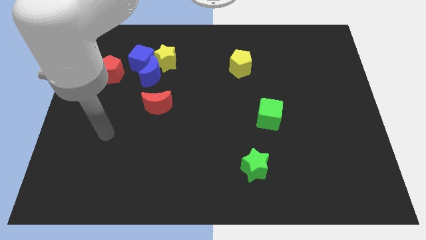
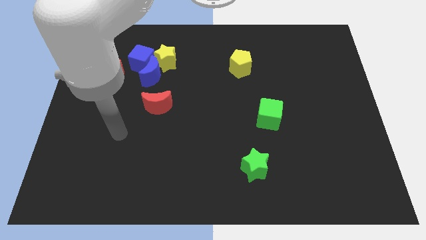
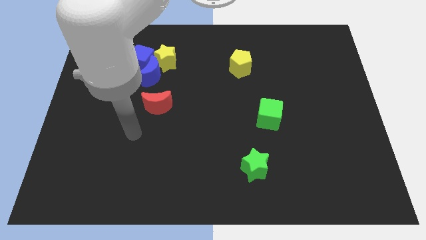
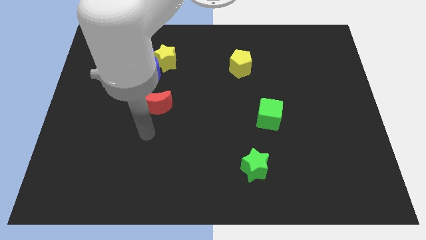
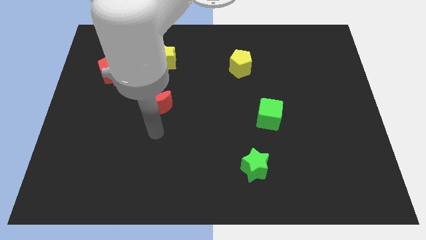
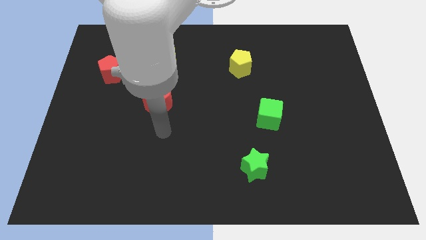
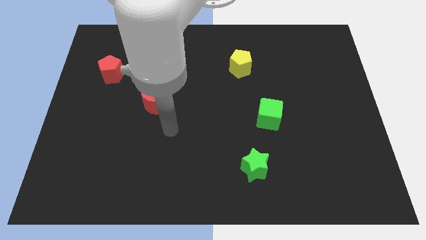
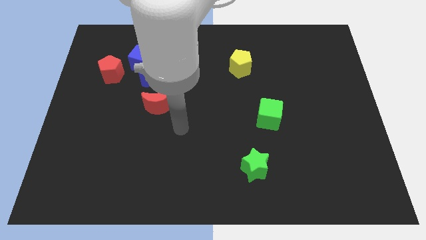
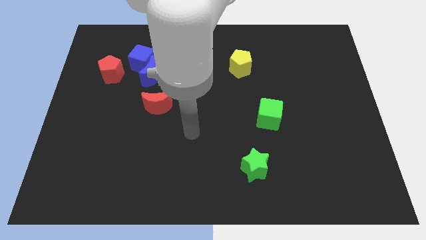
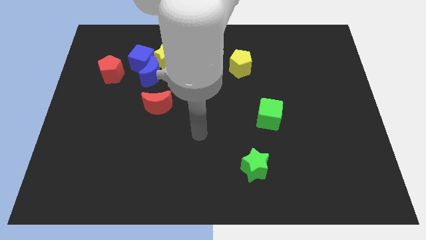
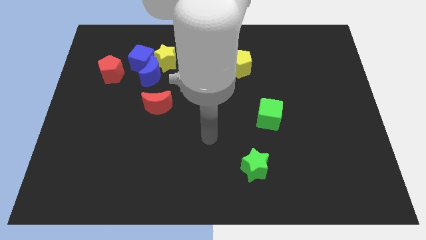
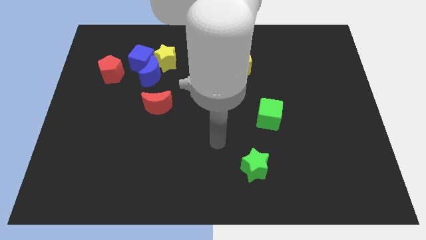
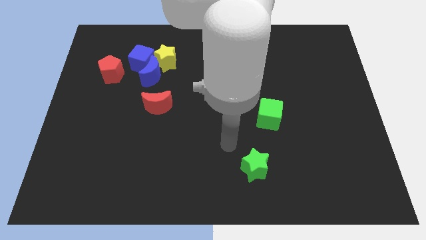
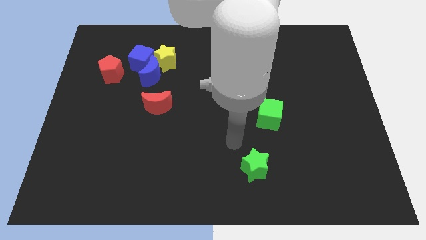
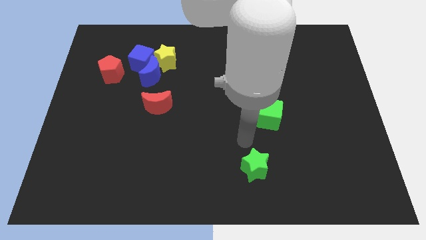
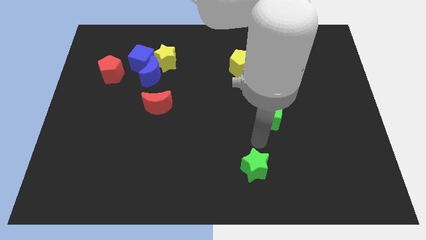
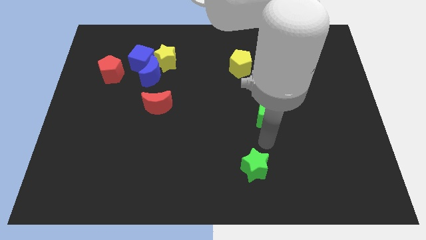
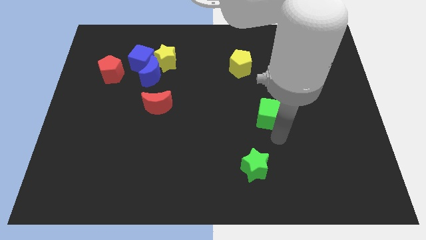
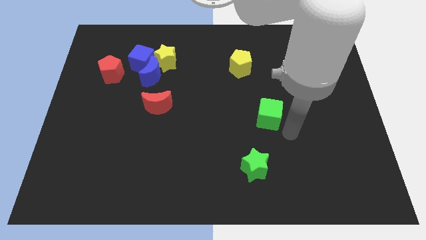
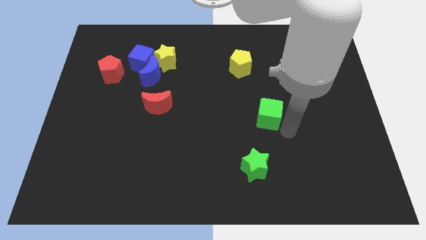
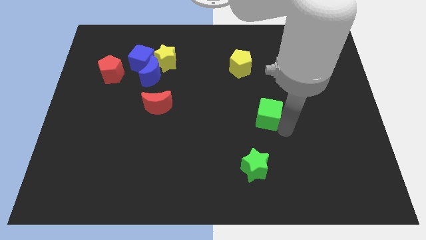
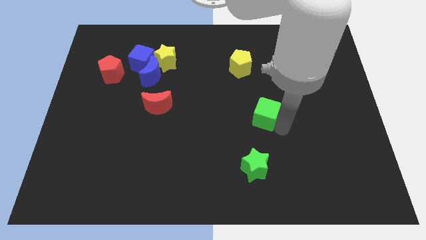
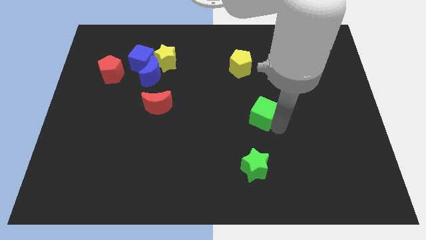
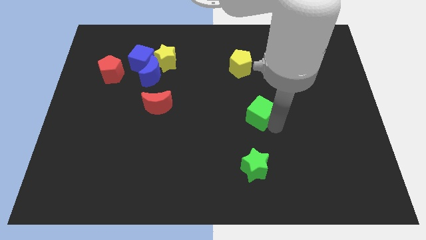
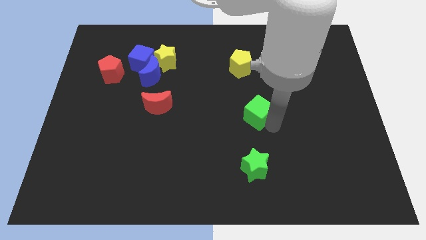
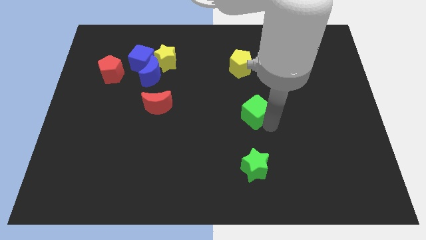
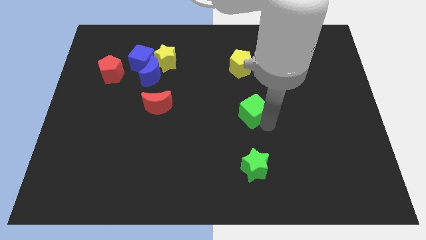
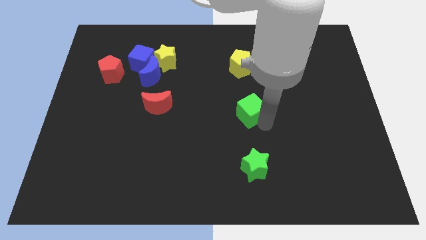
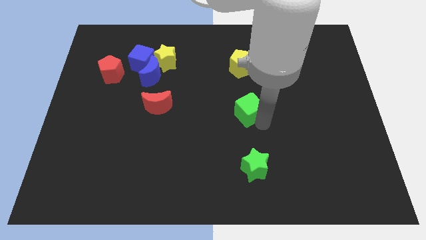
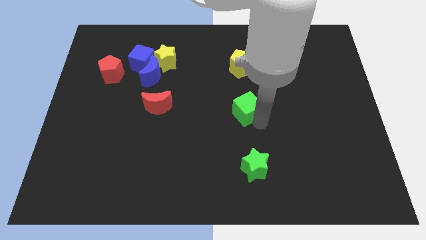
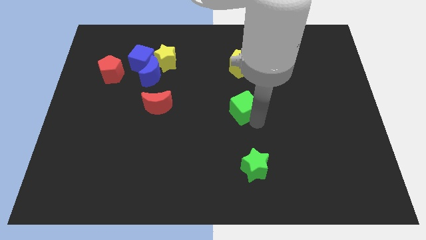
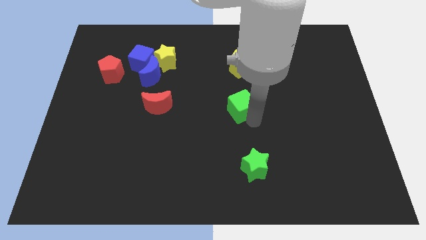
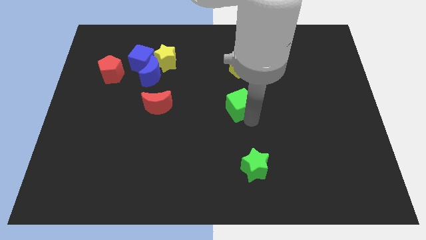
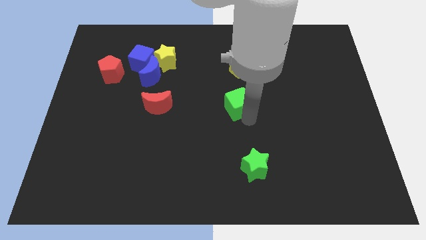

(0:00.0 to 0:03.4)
slide the green cube diagonally upwards and to the left somewhat

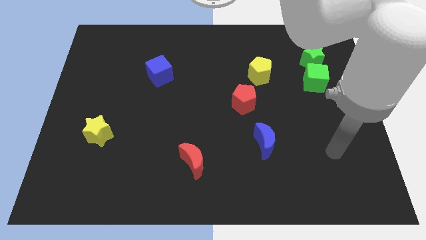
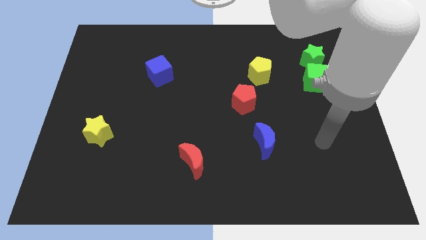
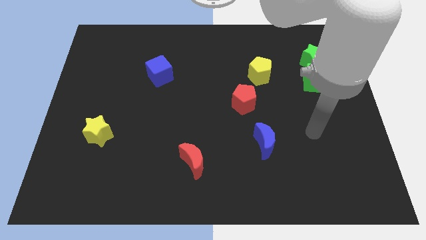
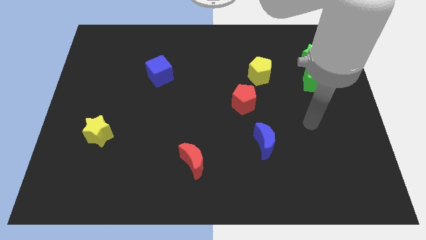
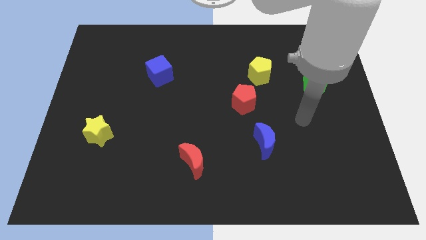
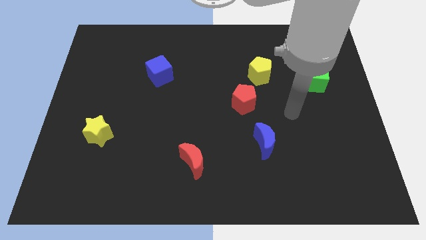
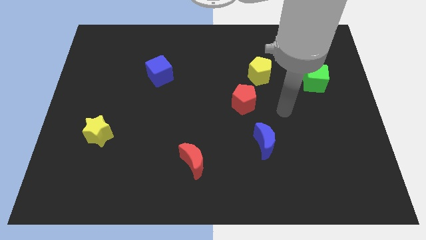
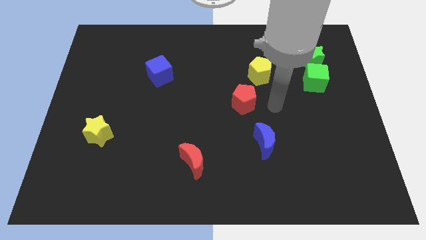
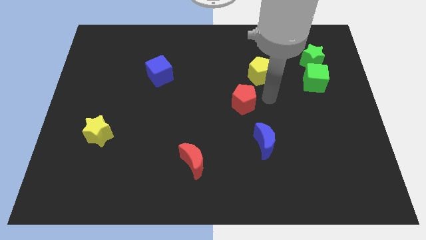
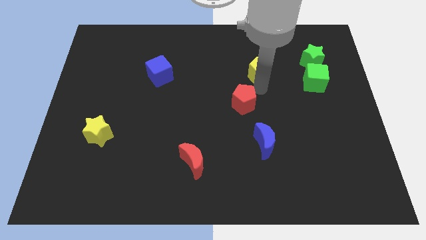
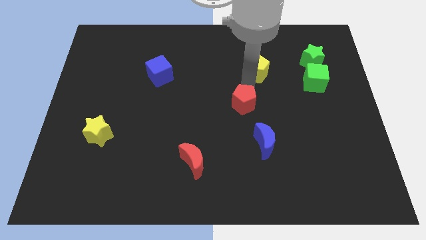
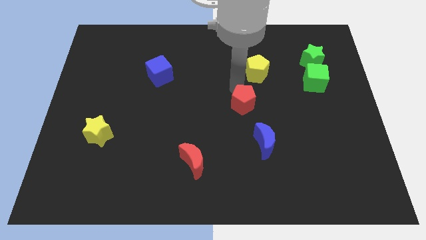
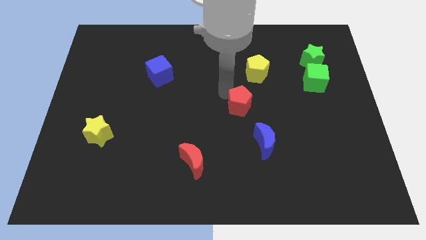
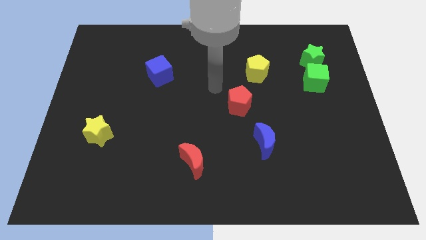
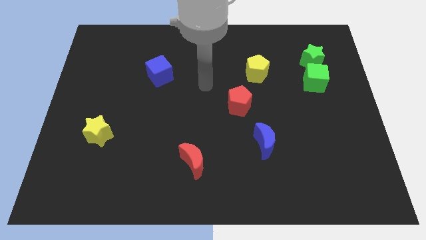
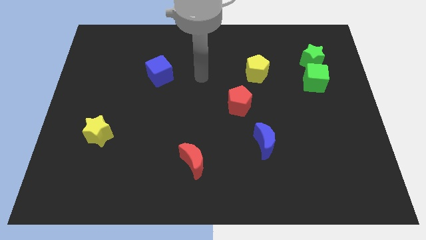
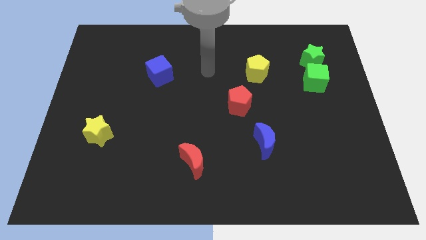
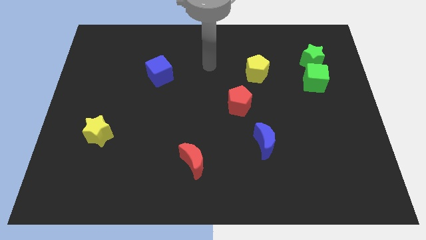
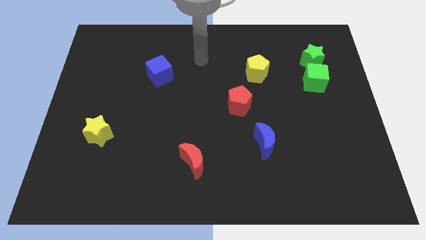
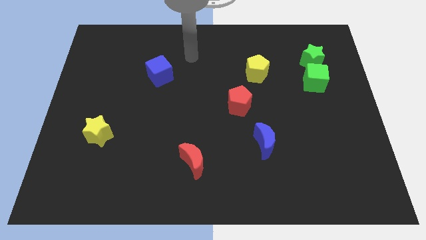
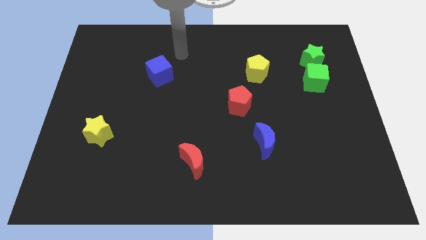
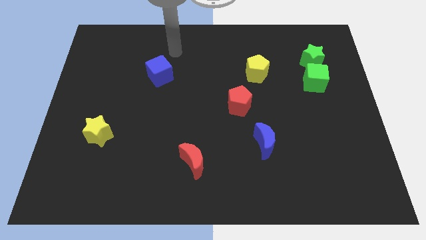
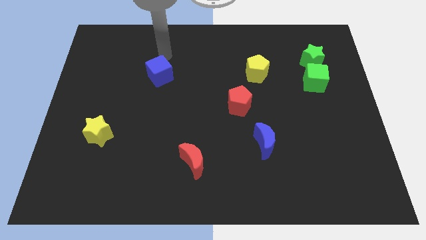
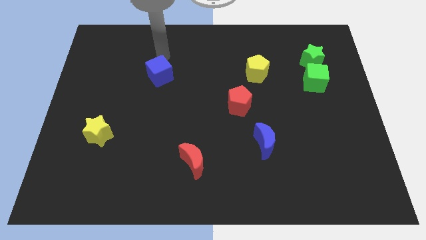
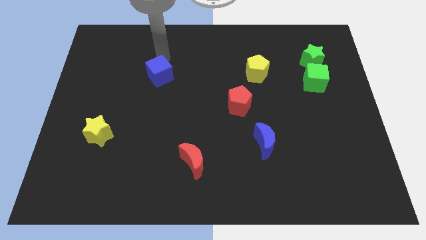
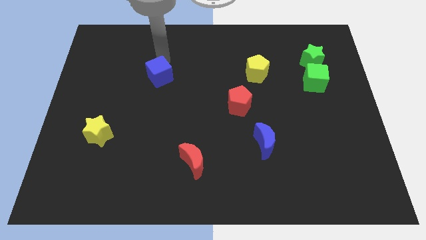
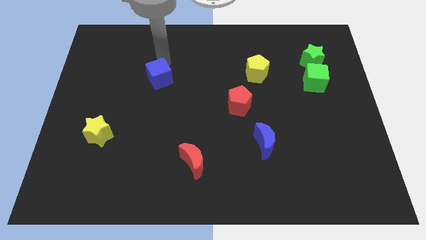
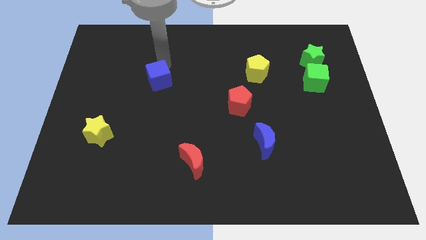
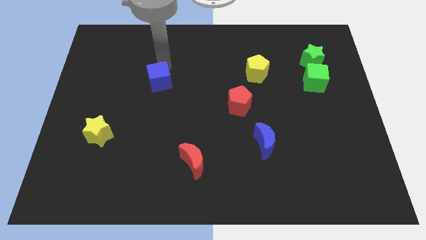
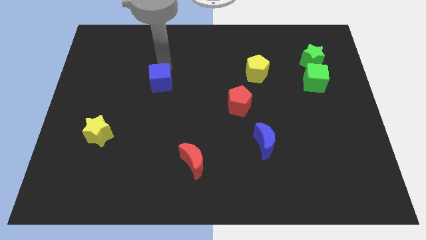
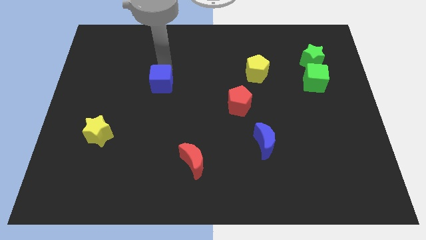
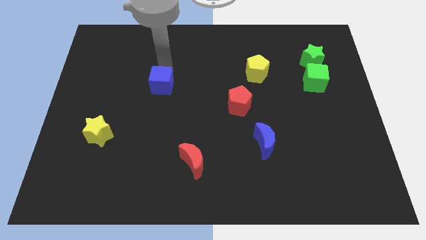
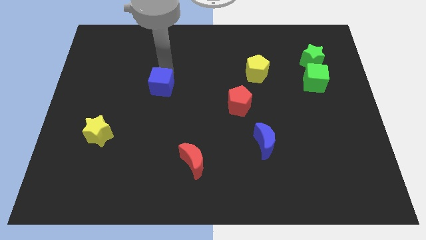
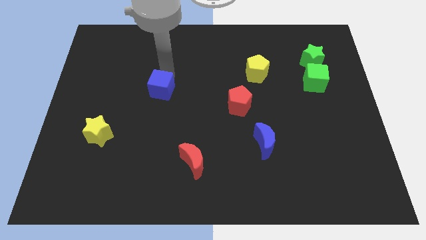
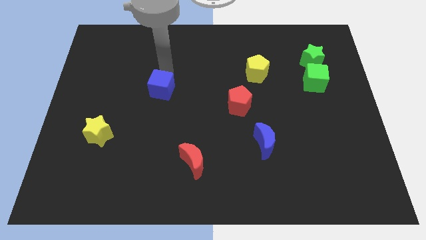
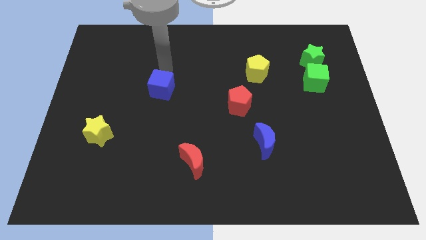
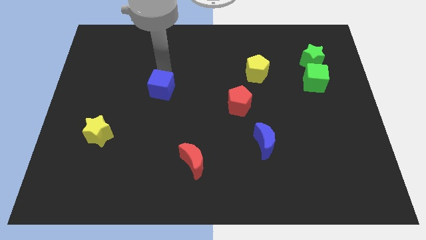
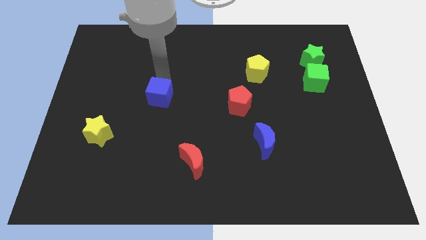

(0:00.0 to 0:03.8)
slide the blue cube down a bit

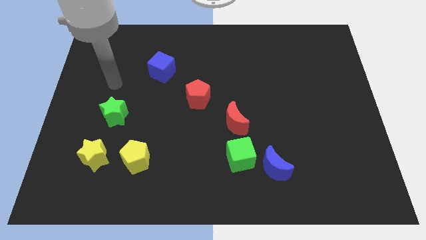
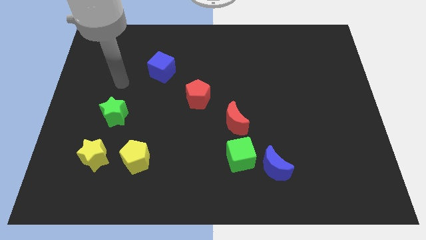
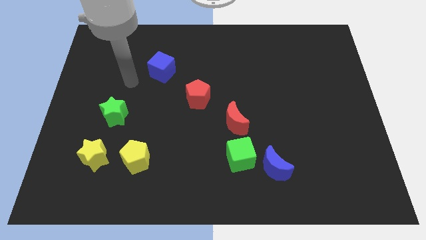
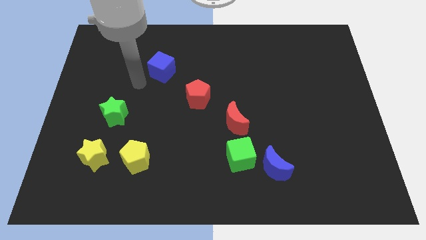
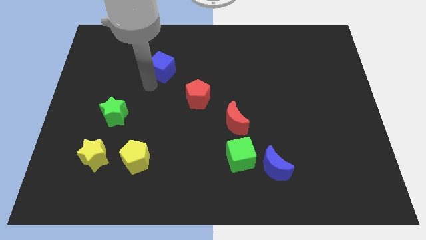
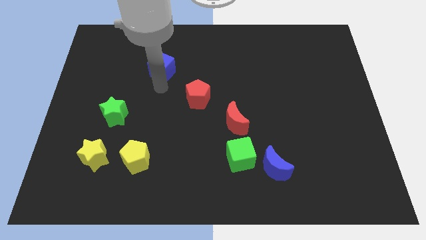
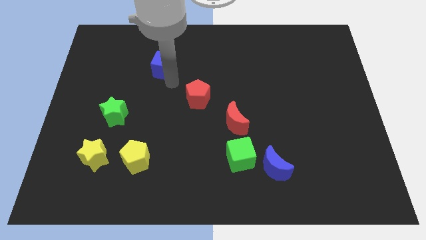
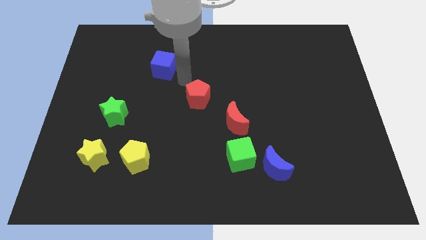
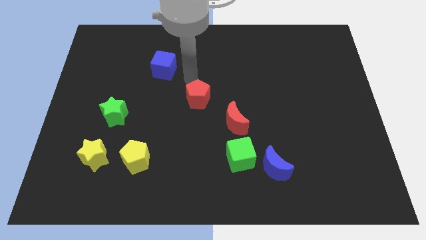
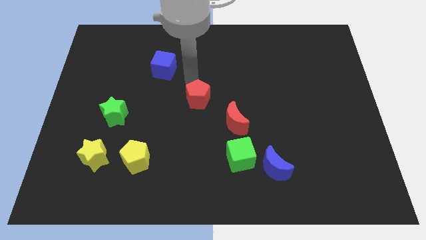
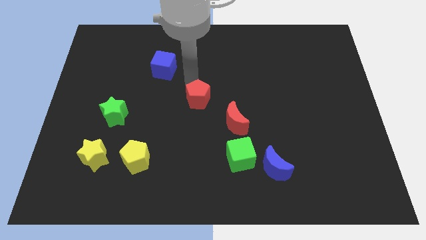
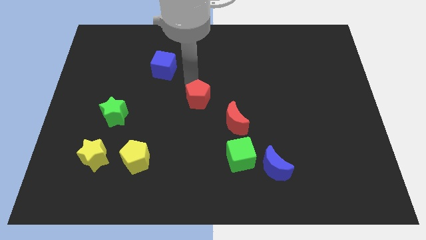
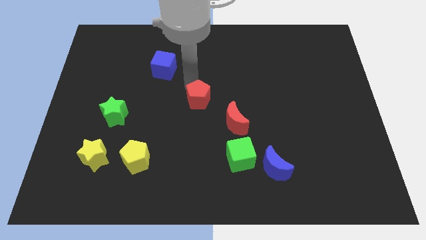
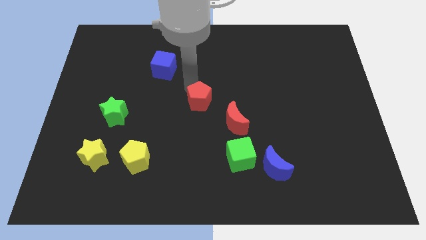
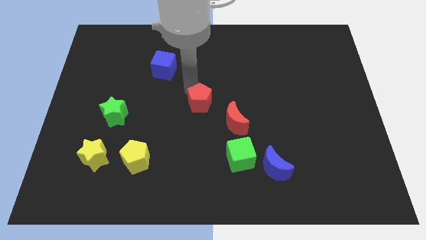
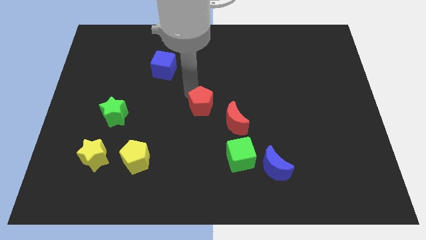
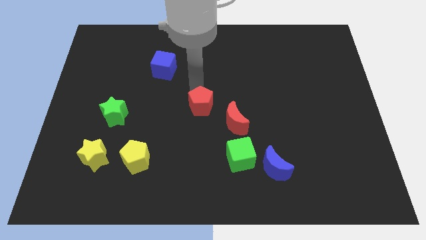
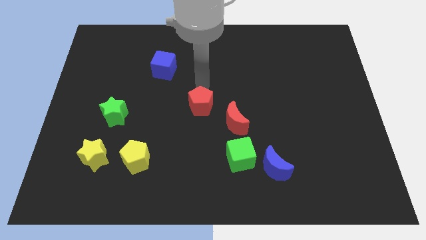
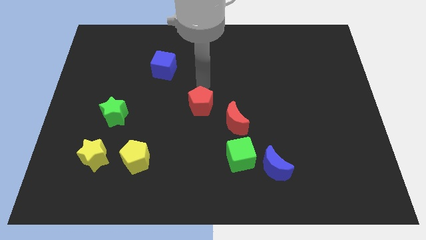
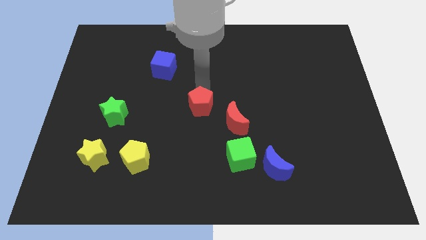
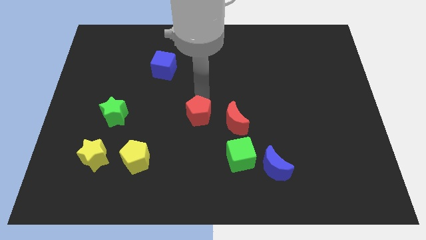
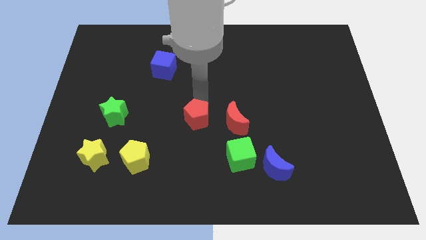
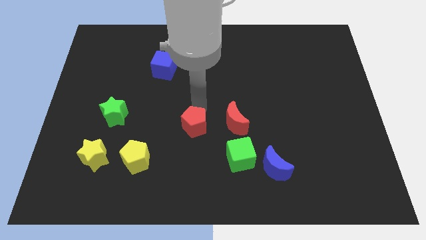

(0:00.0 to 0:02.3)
move the red pentagon down somewhat
